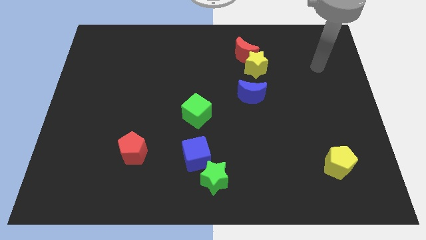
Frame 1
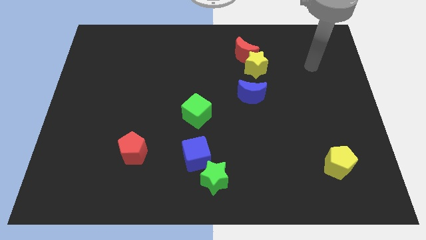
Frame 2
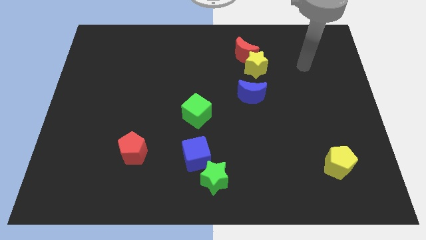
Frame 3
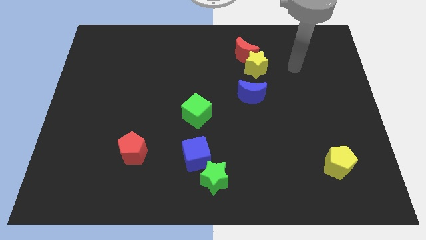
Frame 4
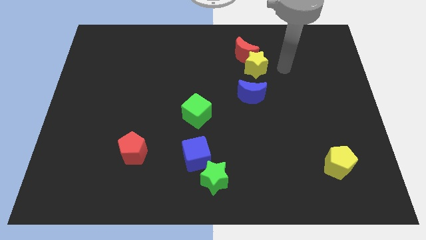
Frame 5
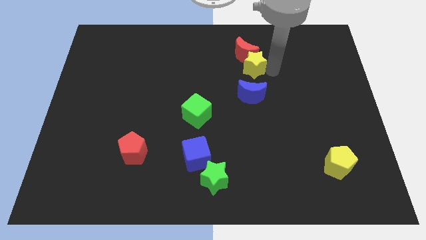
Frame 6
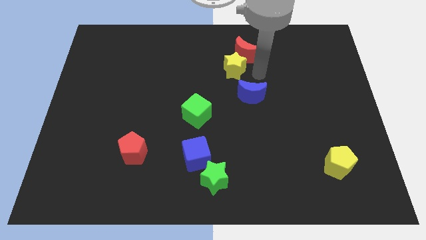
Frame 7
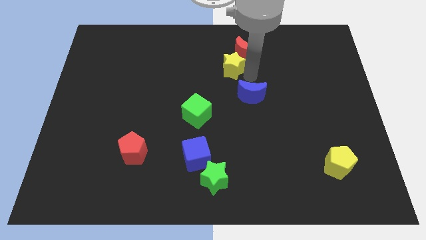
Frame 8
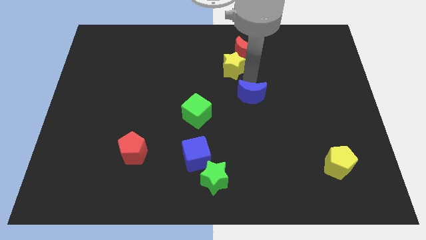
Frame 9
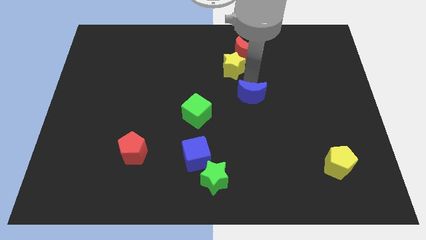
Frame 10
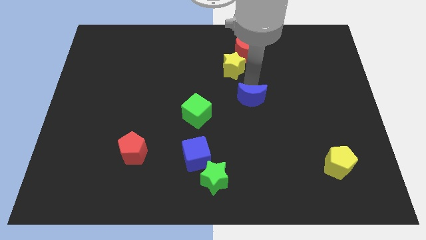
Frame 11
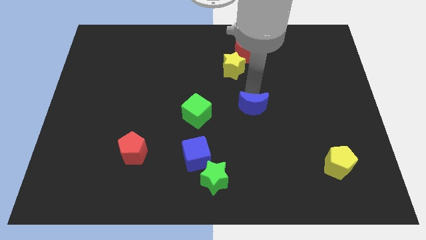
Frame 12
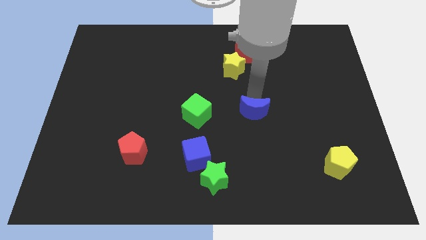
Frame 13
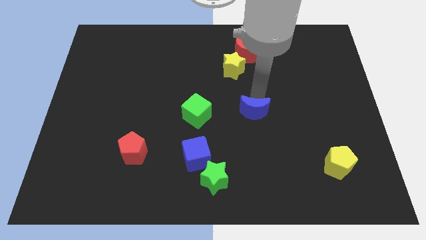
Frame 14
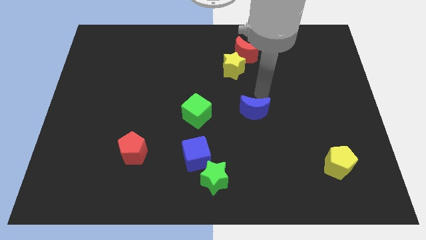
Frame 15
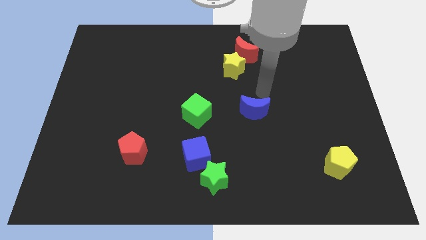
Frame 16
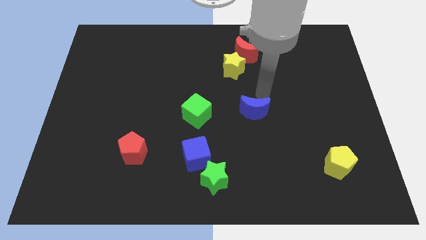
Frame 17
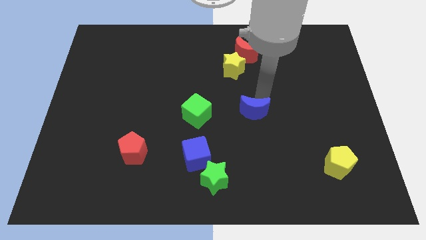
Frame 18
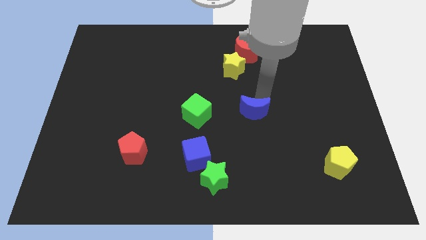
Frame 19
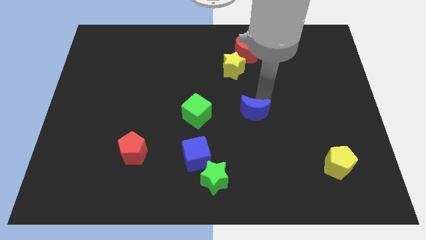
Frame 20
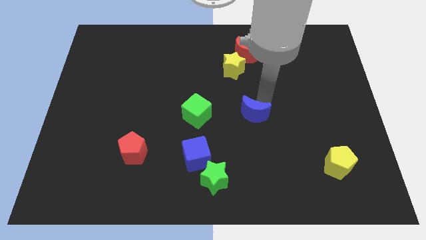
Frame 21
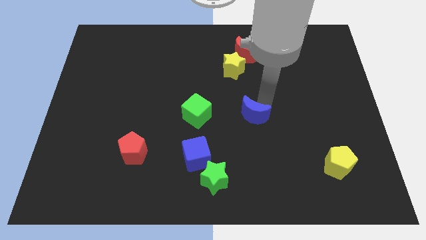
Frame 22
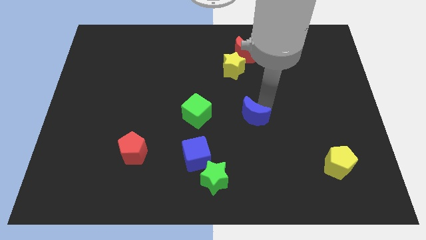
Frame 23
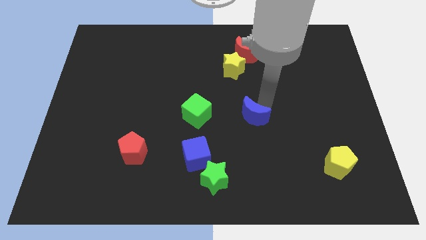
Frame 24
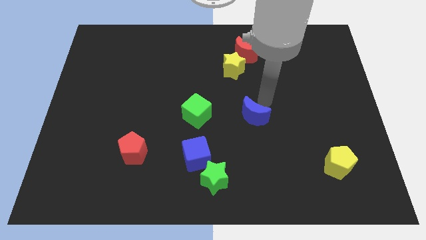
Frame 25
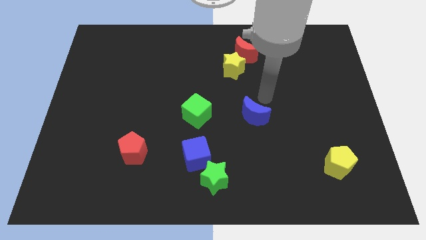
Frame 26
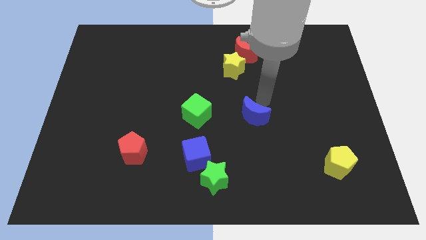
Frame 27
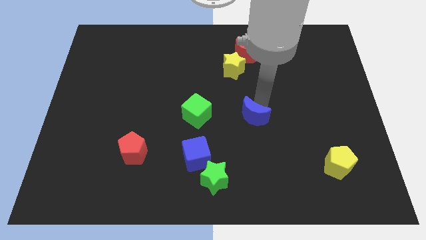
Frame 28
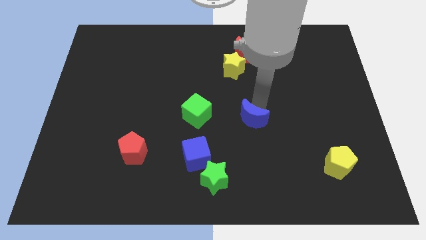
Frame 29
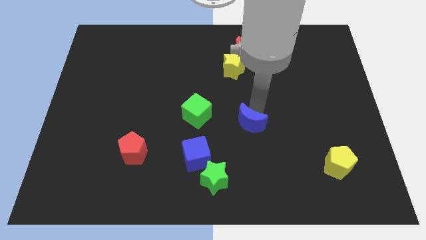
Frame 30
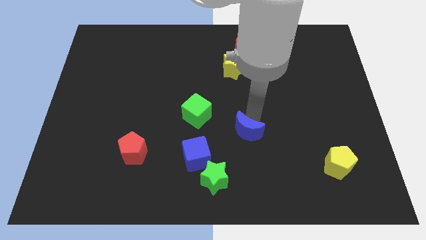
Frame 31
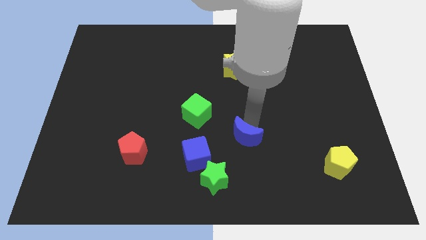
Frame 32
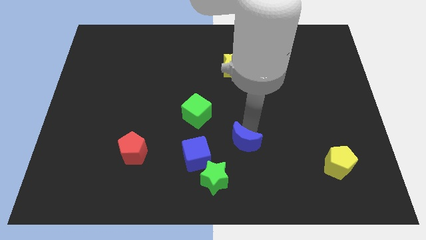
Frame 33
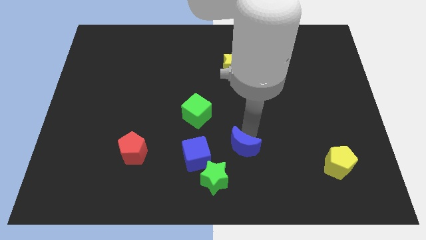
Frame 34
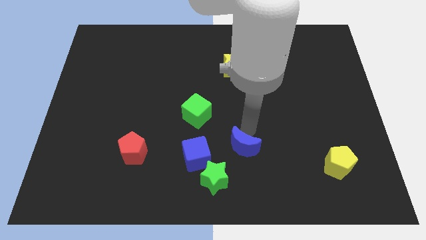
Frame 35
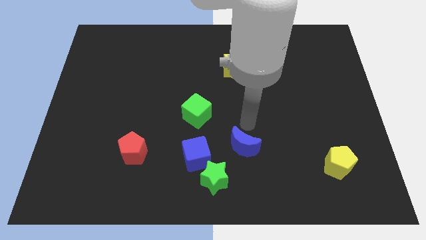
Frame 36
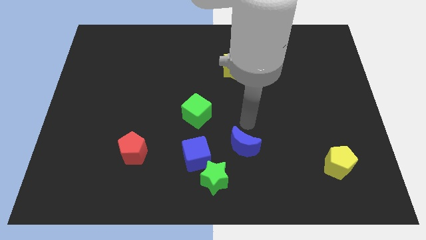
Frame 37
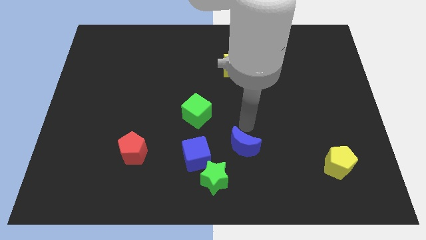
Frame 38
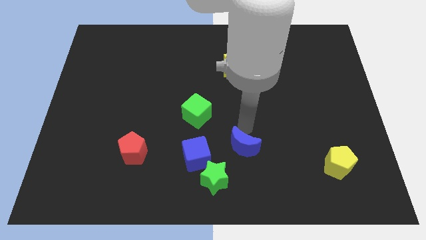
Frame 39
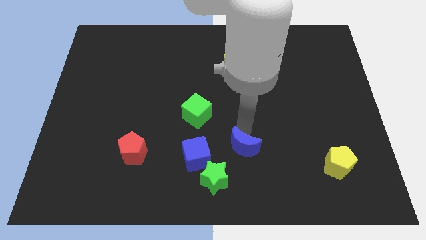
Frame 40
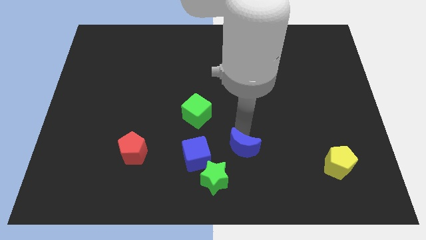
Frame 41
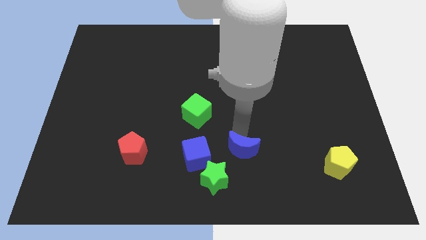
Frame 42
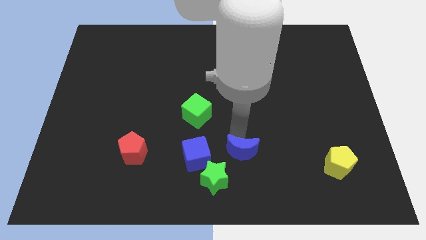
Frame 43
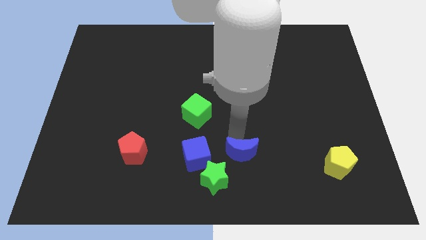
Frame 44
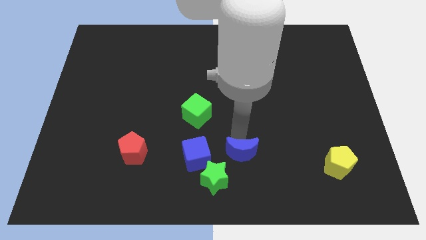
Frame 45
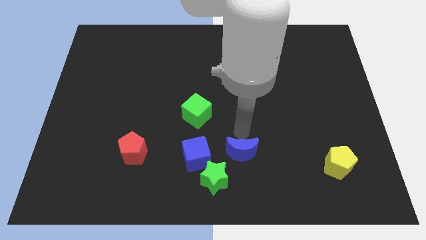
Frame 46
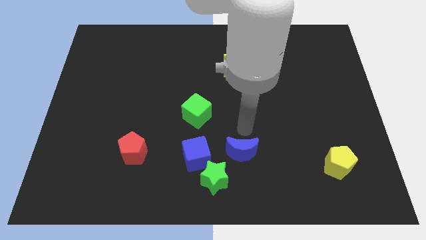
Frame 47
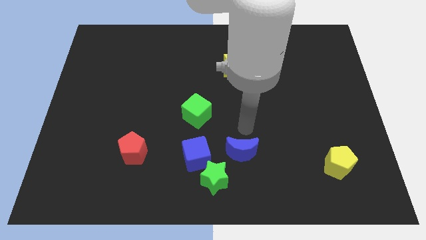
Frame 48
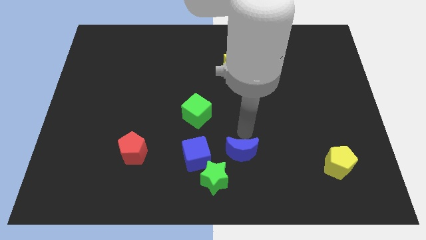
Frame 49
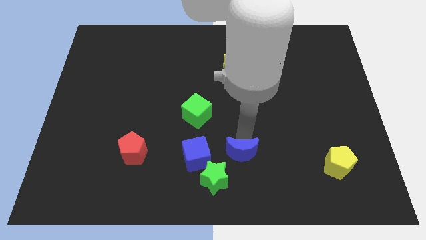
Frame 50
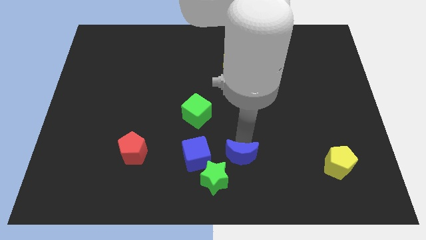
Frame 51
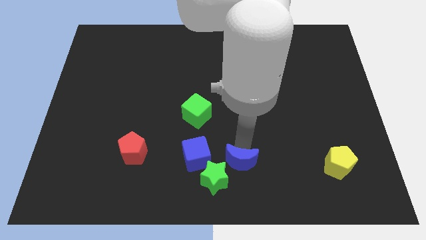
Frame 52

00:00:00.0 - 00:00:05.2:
slide the blue moon to the bottom
